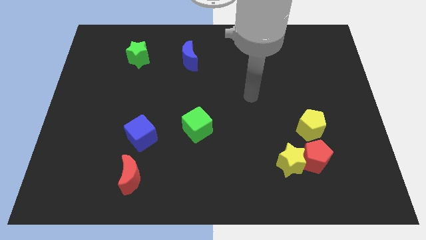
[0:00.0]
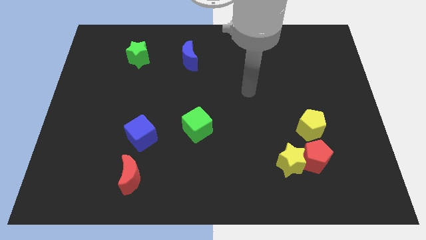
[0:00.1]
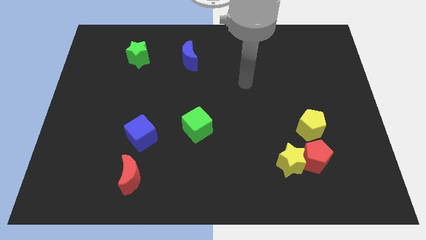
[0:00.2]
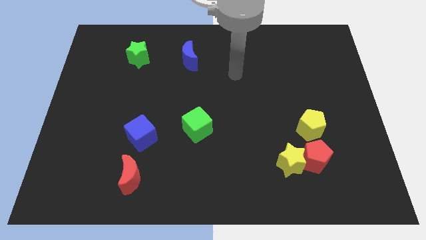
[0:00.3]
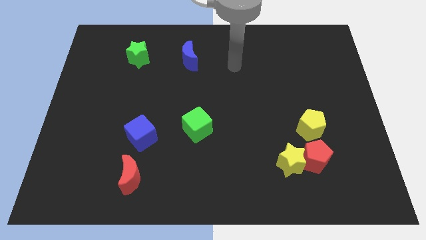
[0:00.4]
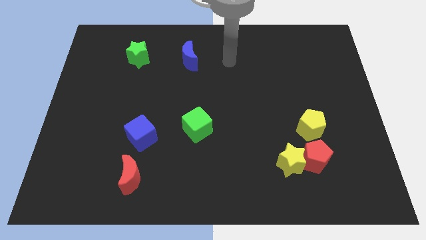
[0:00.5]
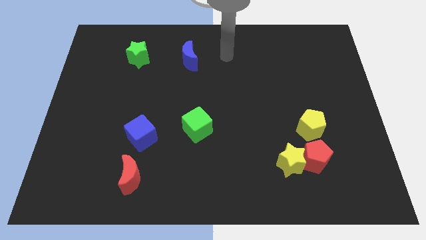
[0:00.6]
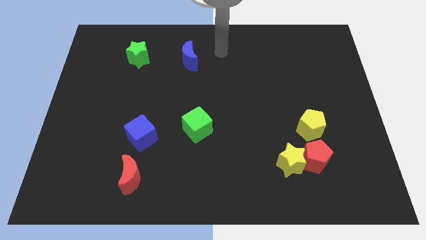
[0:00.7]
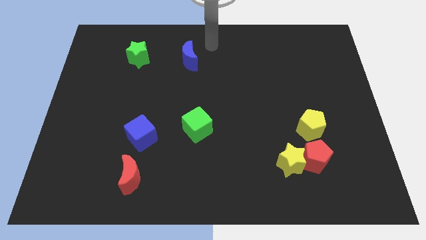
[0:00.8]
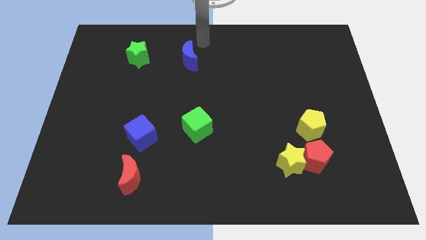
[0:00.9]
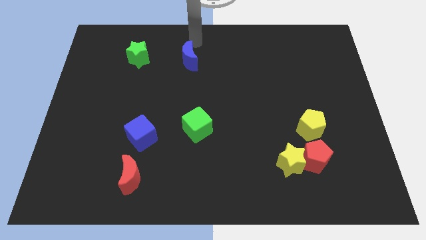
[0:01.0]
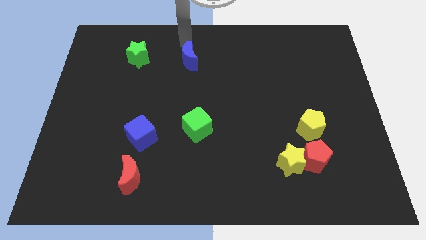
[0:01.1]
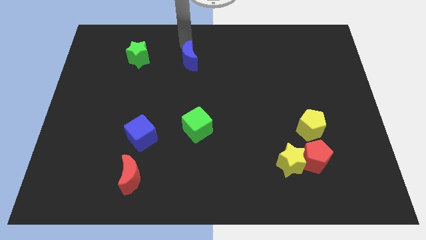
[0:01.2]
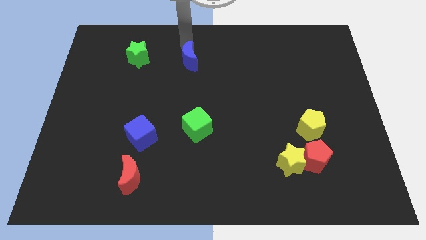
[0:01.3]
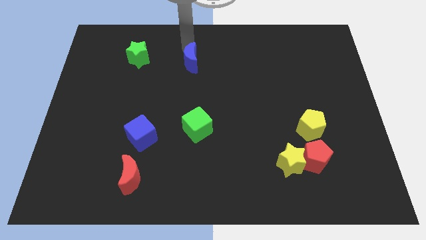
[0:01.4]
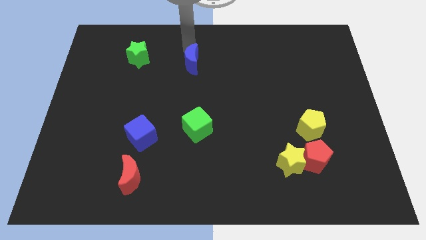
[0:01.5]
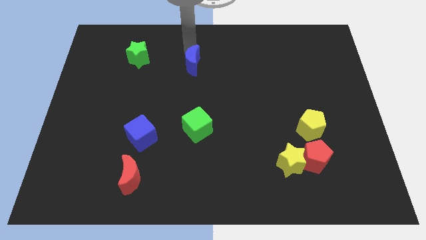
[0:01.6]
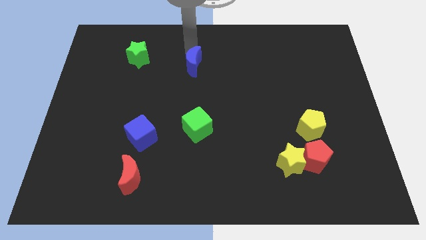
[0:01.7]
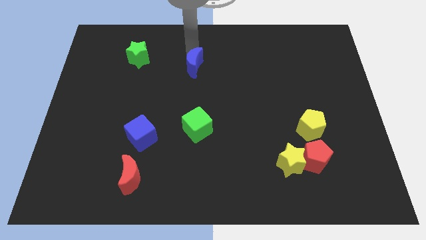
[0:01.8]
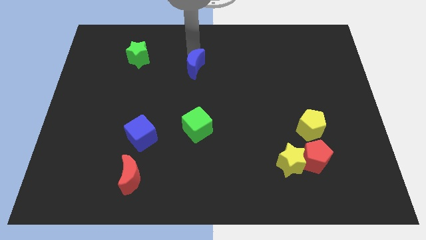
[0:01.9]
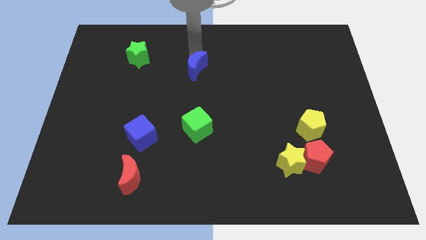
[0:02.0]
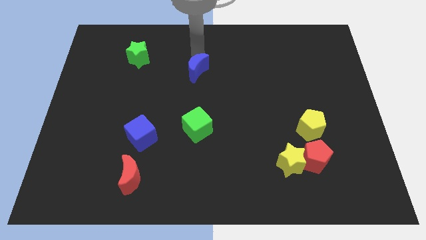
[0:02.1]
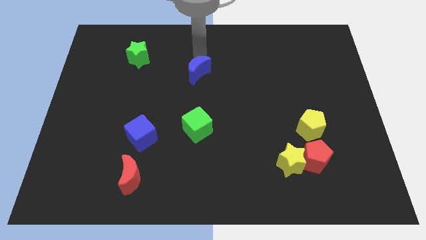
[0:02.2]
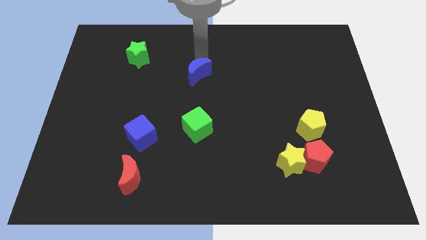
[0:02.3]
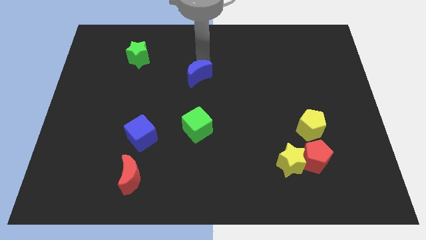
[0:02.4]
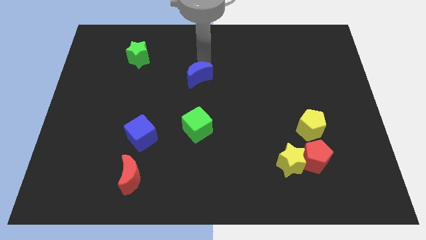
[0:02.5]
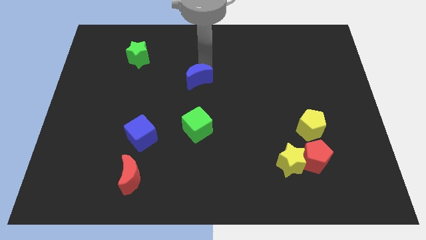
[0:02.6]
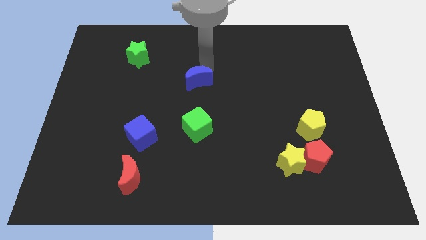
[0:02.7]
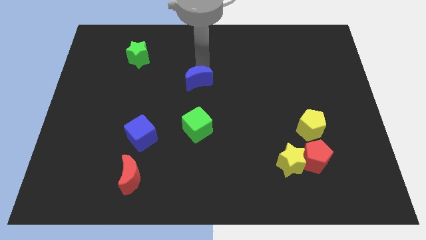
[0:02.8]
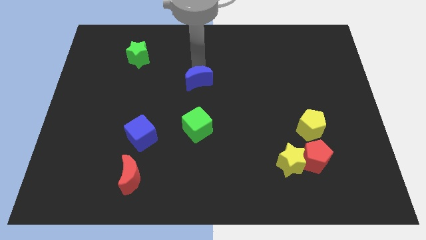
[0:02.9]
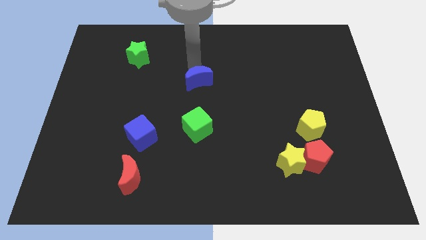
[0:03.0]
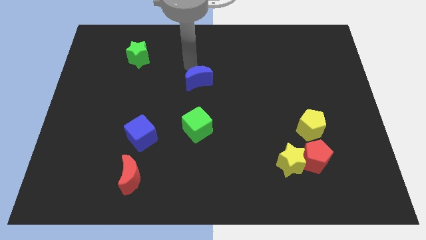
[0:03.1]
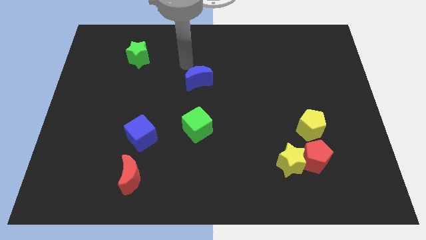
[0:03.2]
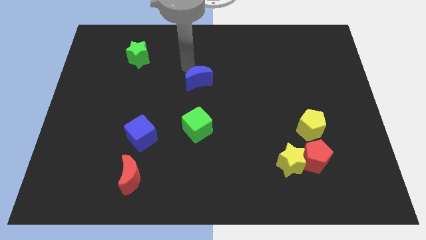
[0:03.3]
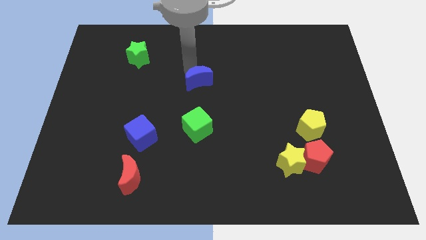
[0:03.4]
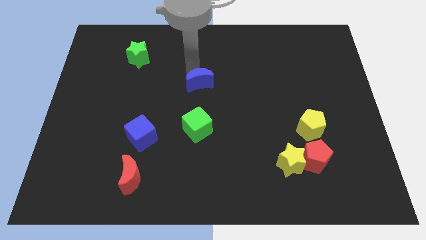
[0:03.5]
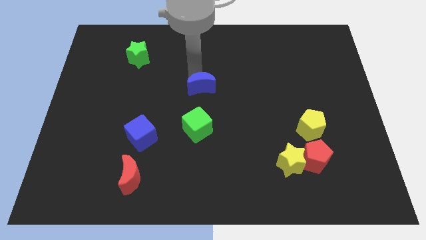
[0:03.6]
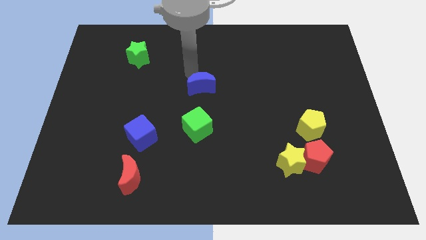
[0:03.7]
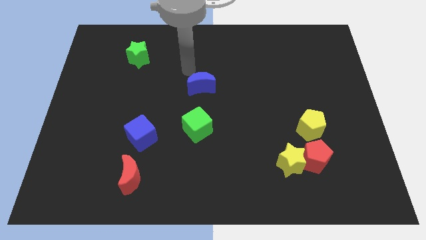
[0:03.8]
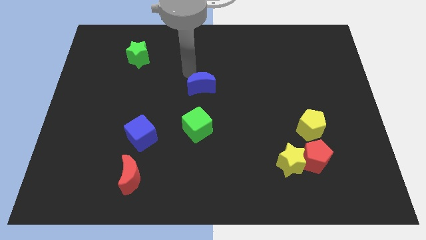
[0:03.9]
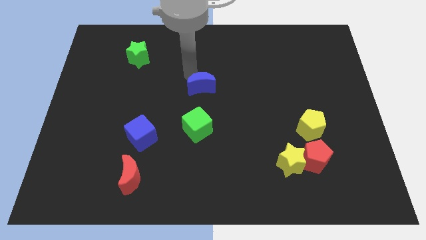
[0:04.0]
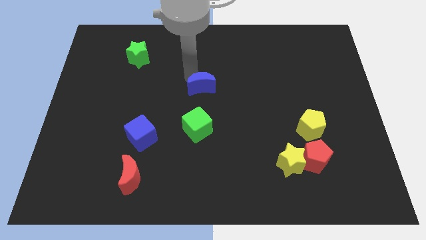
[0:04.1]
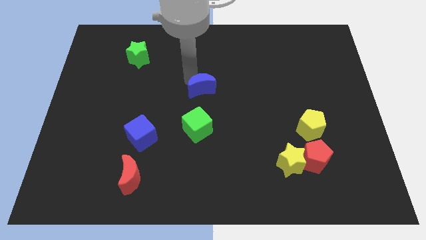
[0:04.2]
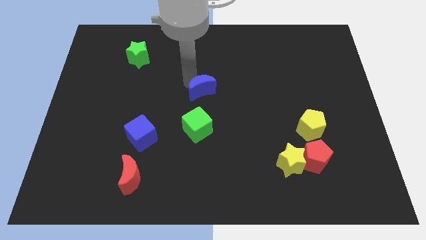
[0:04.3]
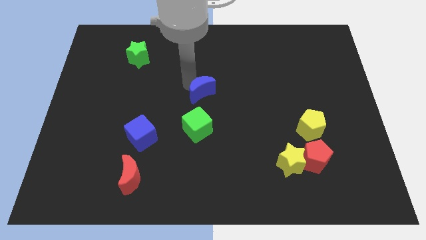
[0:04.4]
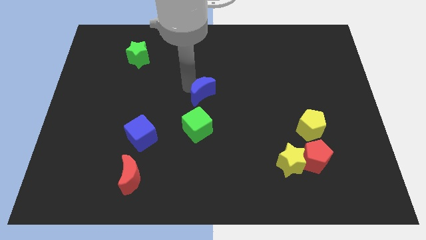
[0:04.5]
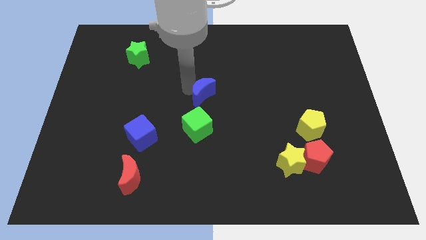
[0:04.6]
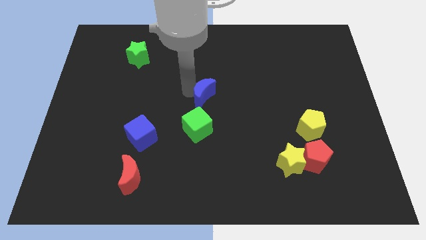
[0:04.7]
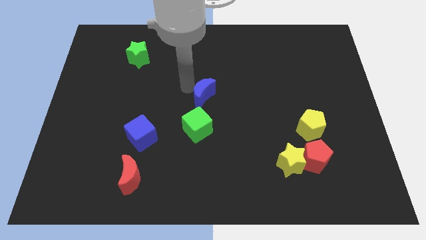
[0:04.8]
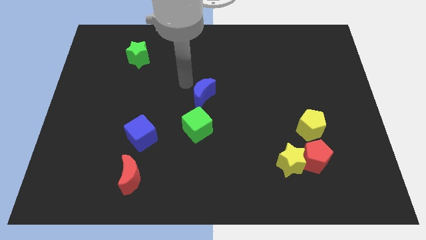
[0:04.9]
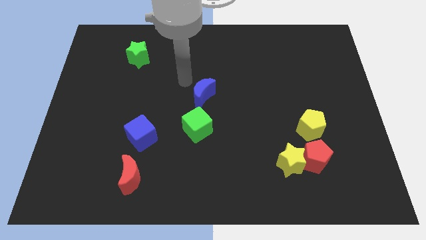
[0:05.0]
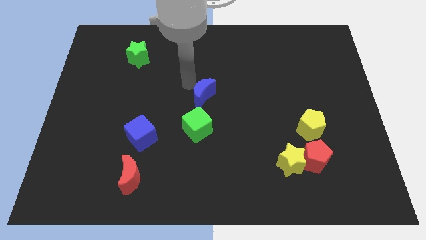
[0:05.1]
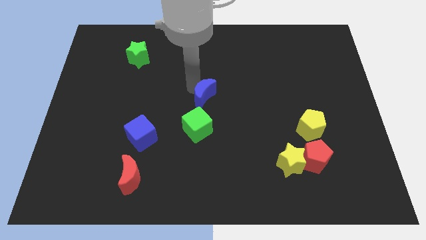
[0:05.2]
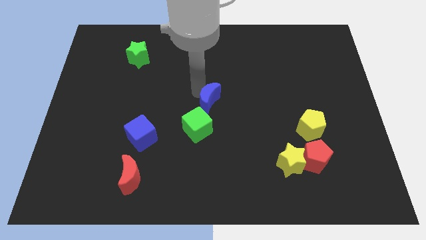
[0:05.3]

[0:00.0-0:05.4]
push the blue moon to the top right side of the green cube
